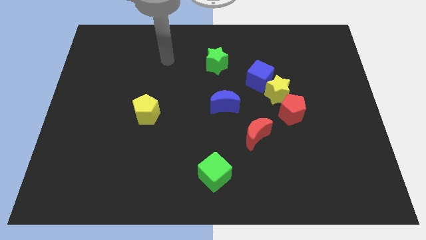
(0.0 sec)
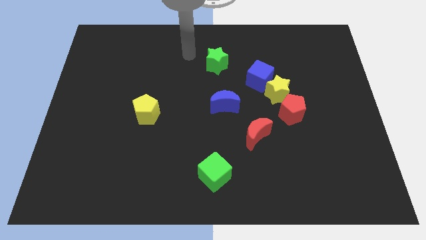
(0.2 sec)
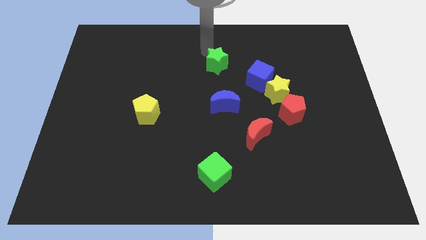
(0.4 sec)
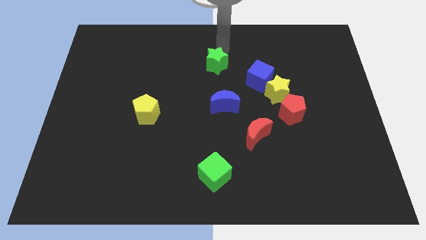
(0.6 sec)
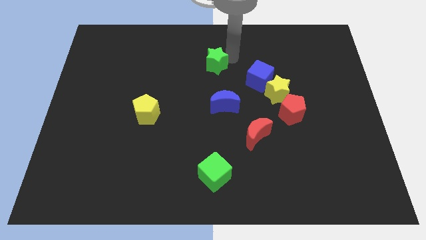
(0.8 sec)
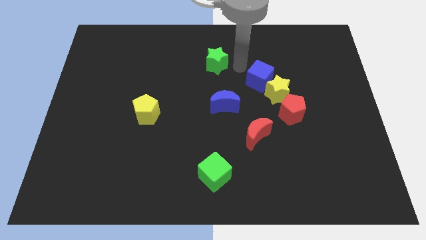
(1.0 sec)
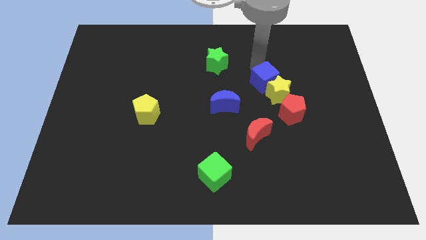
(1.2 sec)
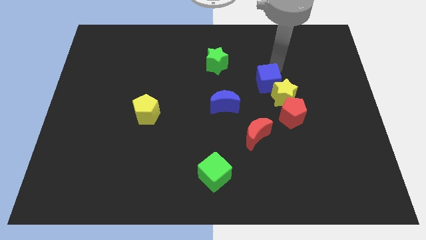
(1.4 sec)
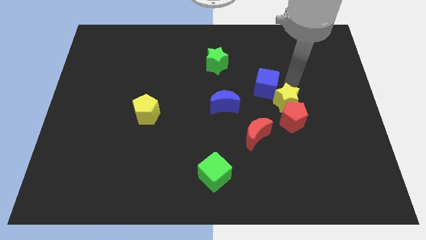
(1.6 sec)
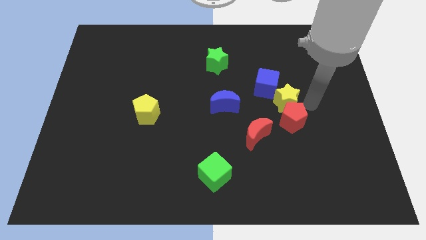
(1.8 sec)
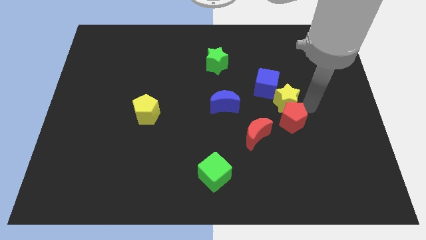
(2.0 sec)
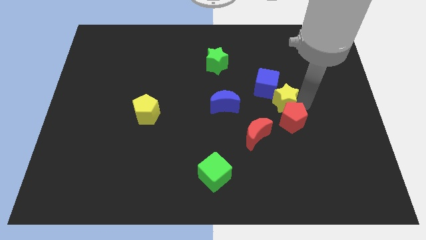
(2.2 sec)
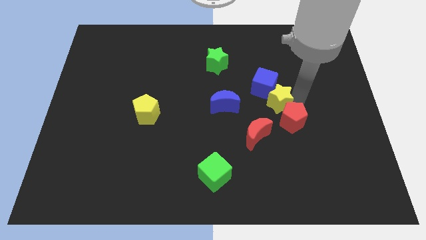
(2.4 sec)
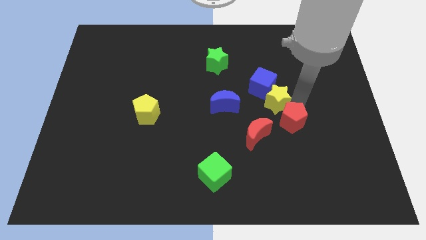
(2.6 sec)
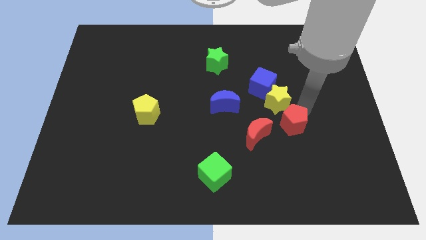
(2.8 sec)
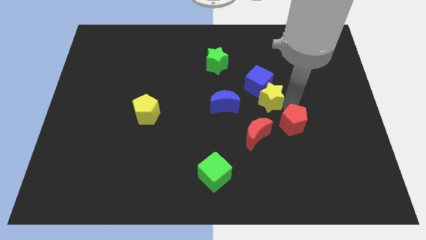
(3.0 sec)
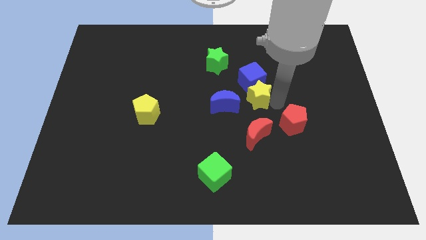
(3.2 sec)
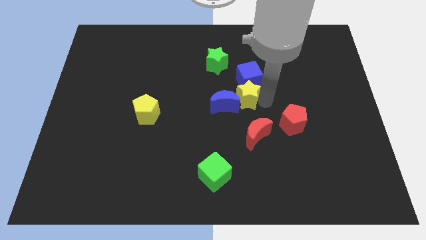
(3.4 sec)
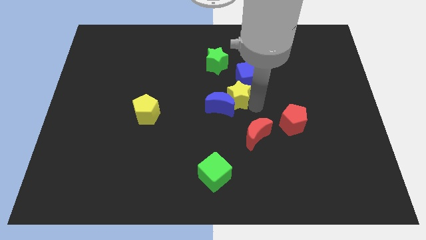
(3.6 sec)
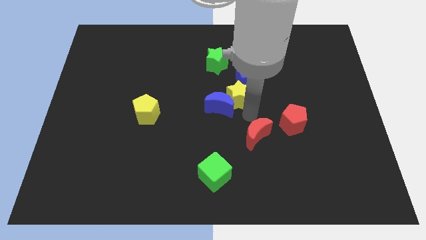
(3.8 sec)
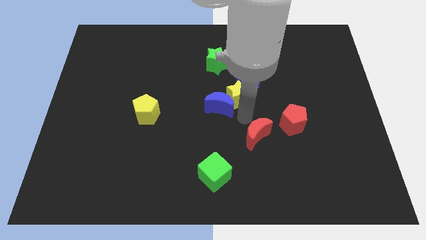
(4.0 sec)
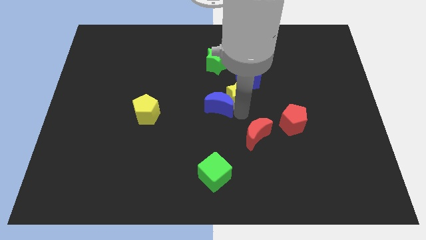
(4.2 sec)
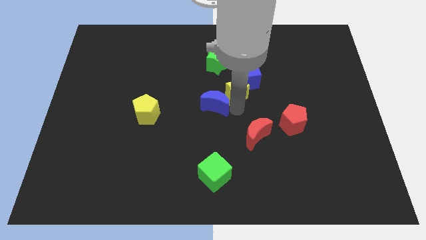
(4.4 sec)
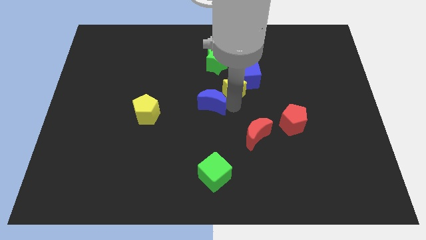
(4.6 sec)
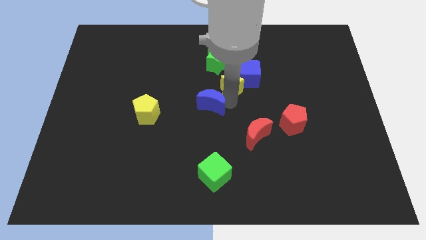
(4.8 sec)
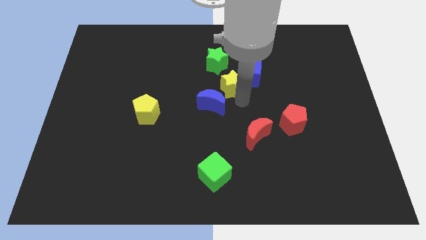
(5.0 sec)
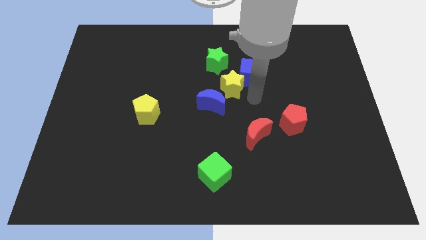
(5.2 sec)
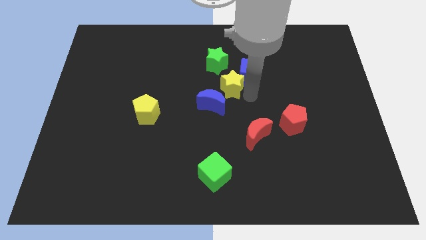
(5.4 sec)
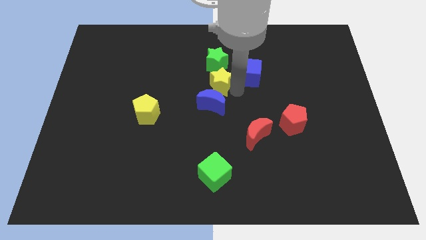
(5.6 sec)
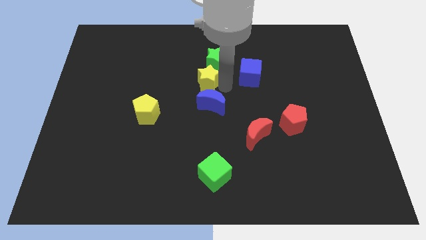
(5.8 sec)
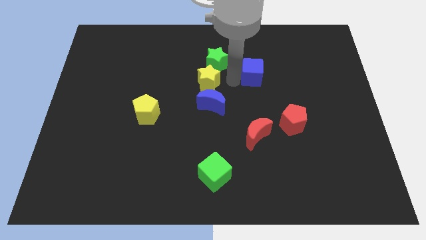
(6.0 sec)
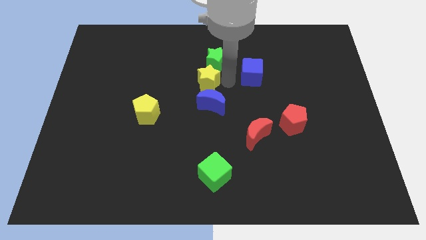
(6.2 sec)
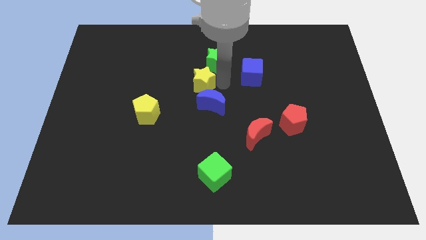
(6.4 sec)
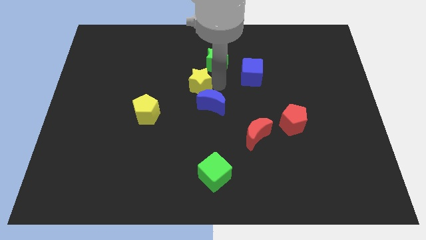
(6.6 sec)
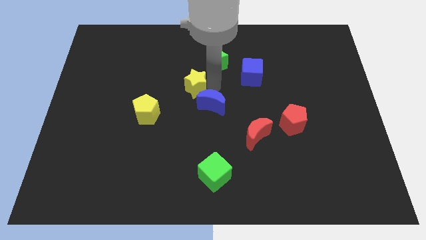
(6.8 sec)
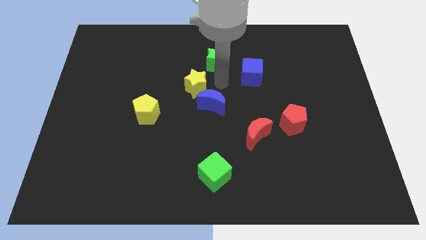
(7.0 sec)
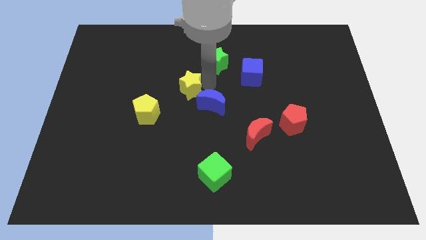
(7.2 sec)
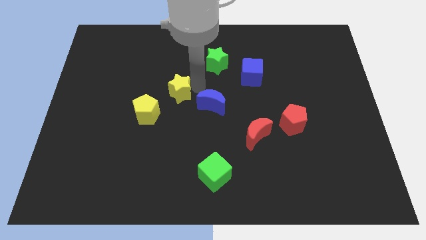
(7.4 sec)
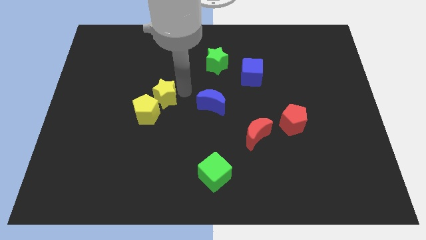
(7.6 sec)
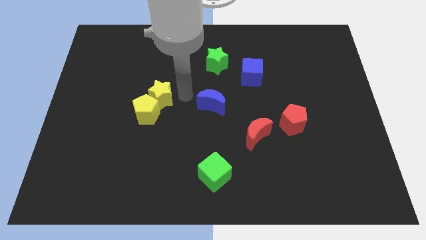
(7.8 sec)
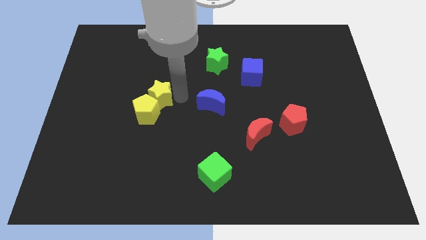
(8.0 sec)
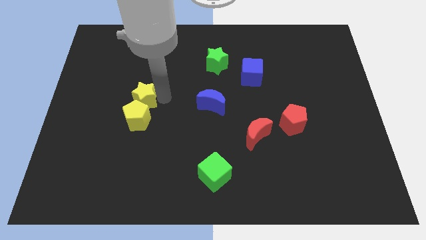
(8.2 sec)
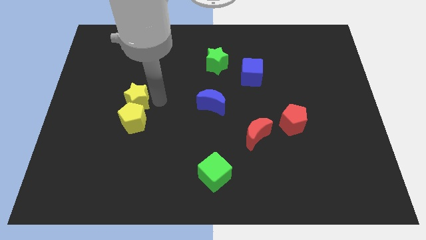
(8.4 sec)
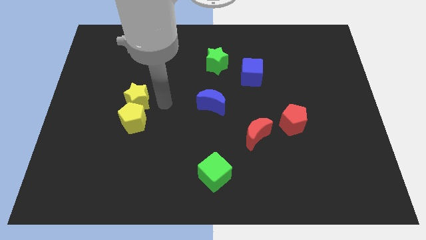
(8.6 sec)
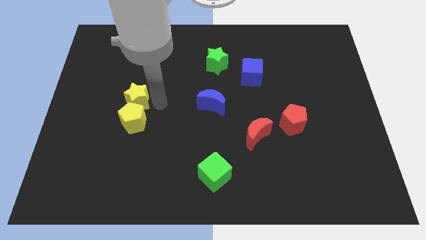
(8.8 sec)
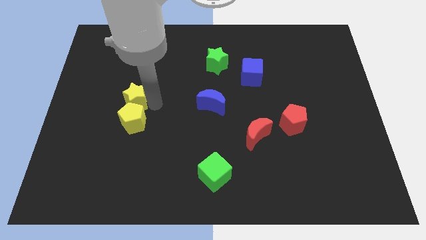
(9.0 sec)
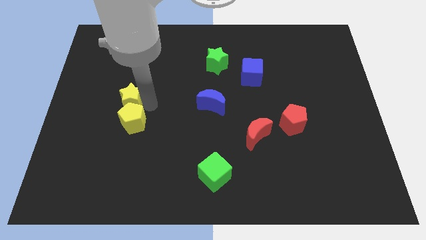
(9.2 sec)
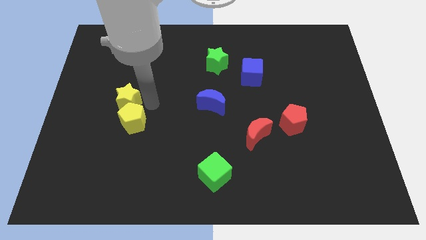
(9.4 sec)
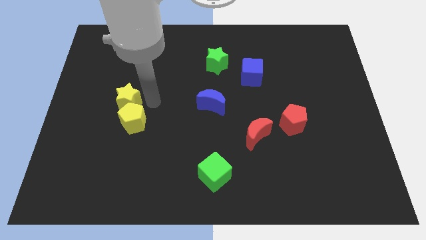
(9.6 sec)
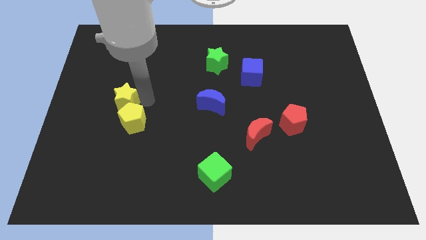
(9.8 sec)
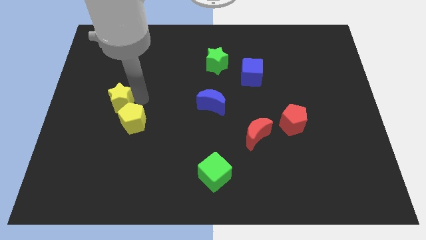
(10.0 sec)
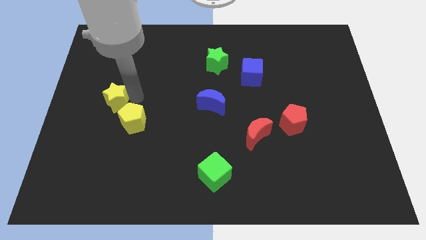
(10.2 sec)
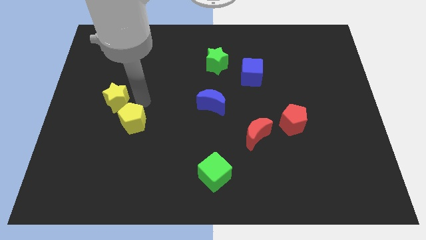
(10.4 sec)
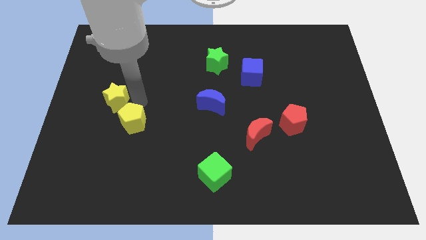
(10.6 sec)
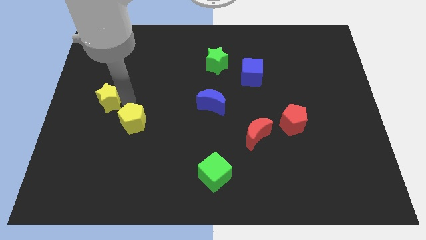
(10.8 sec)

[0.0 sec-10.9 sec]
push the yellow star to the left side

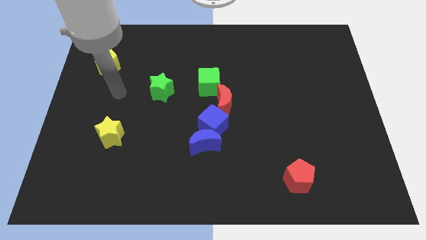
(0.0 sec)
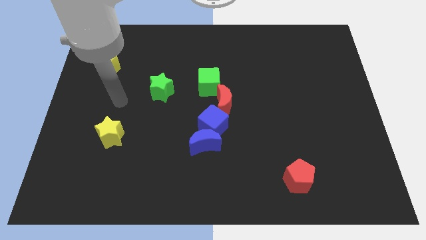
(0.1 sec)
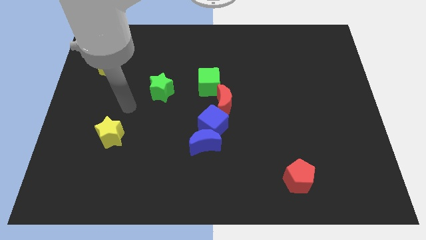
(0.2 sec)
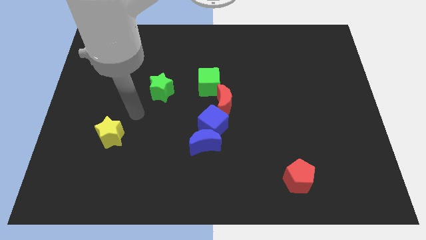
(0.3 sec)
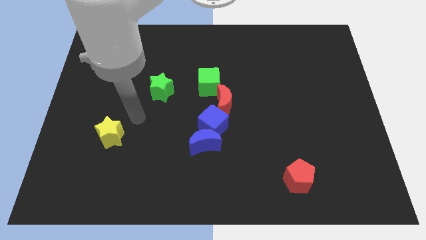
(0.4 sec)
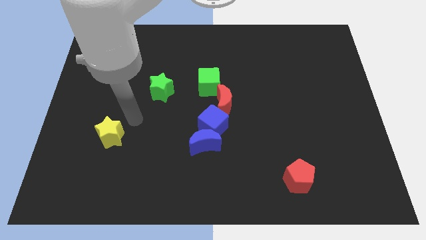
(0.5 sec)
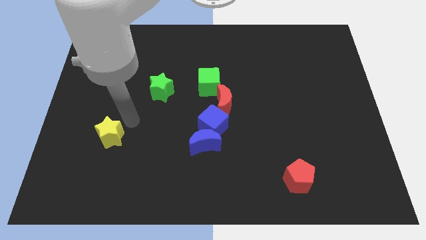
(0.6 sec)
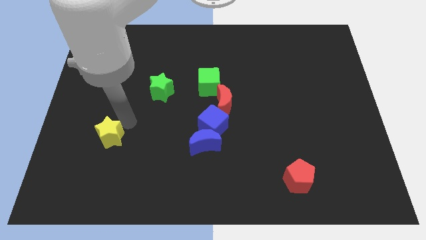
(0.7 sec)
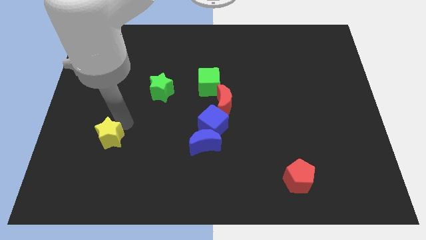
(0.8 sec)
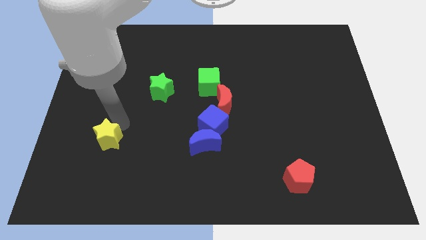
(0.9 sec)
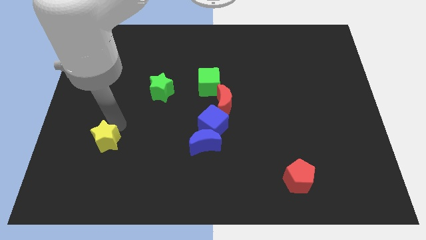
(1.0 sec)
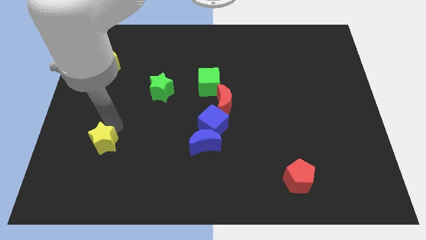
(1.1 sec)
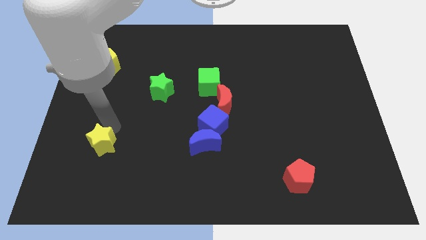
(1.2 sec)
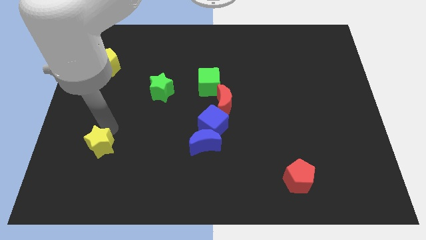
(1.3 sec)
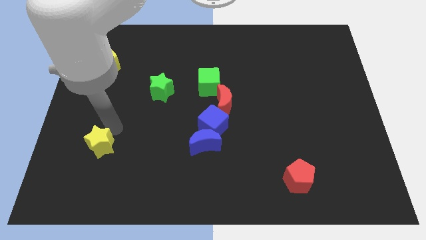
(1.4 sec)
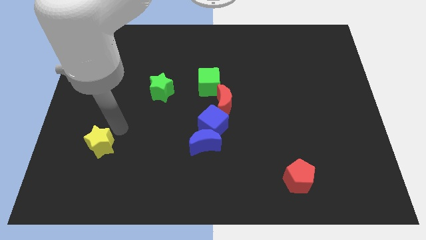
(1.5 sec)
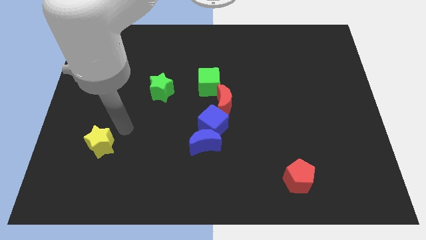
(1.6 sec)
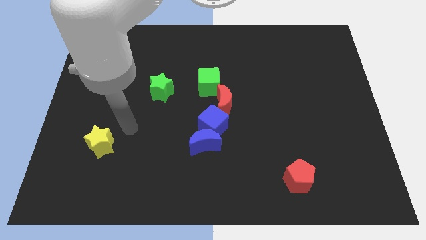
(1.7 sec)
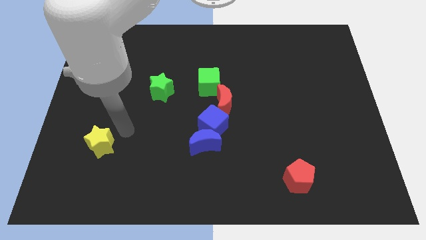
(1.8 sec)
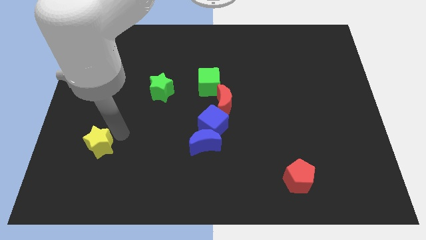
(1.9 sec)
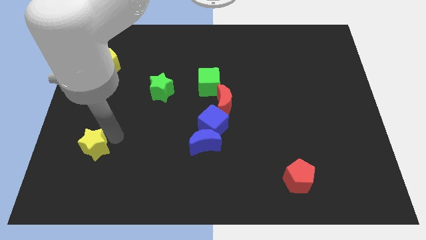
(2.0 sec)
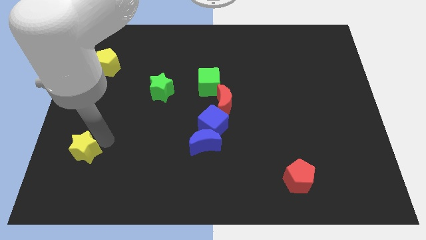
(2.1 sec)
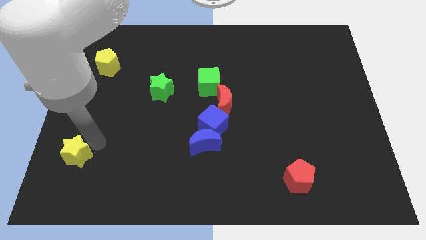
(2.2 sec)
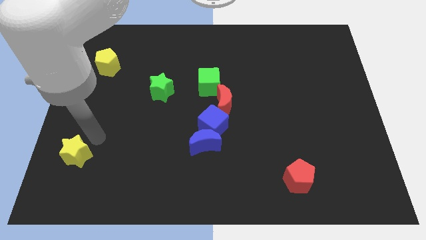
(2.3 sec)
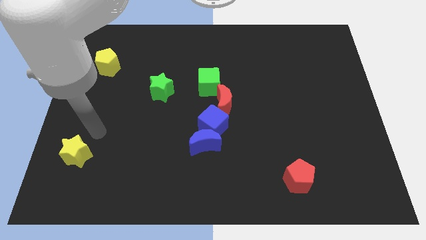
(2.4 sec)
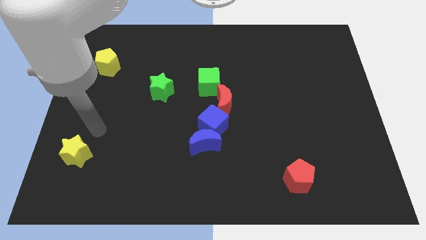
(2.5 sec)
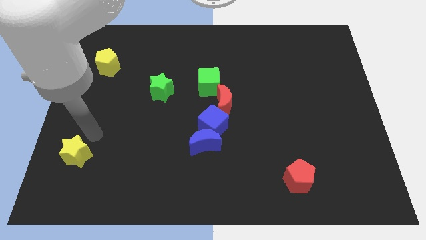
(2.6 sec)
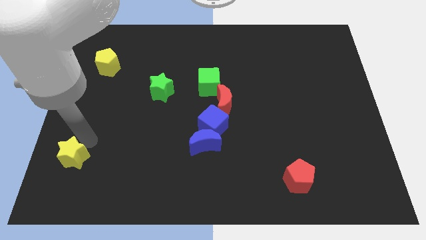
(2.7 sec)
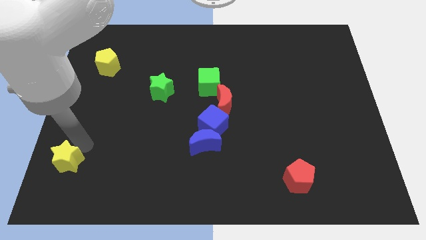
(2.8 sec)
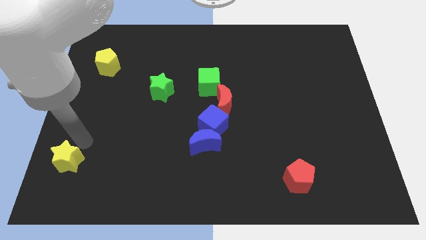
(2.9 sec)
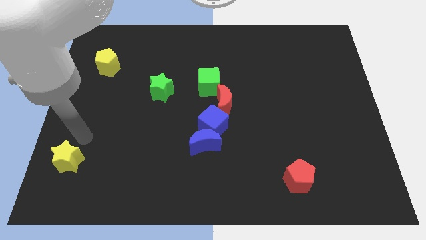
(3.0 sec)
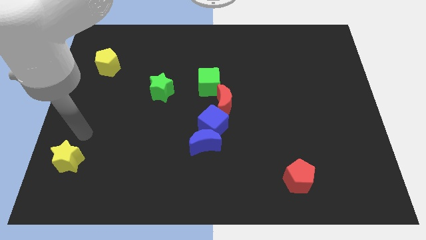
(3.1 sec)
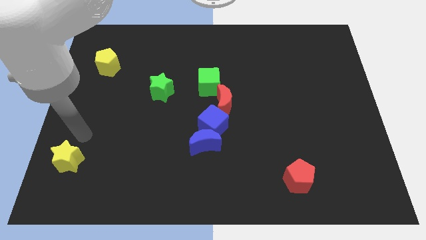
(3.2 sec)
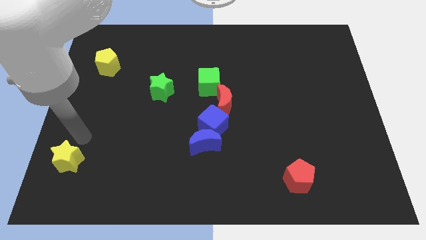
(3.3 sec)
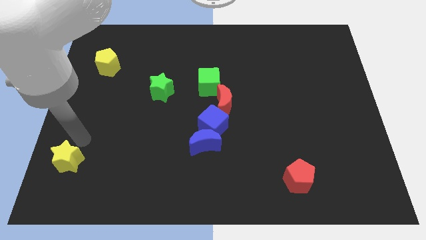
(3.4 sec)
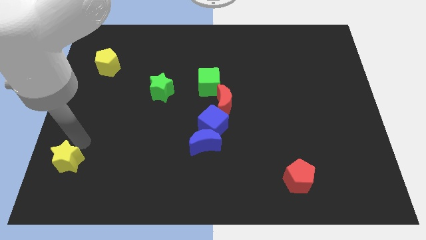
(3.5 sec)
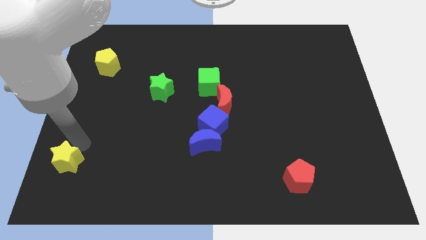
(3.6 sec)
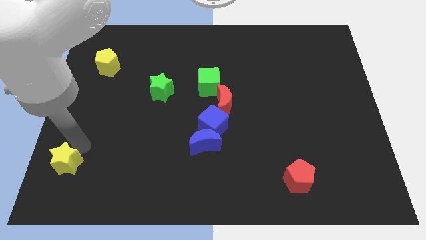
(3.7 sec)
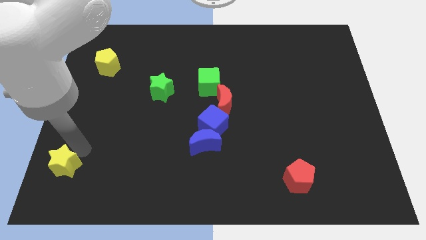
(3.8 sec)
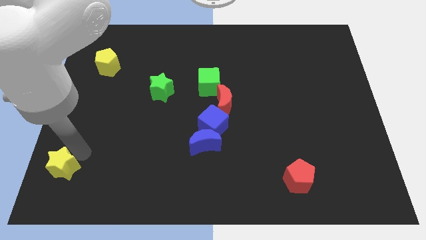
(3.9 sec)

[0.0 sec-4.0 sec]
move the yellow star to the bottom left
